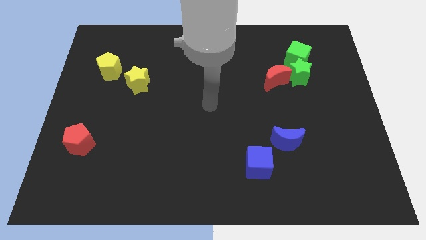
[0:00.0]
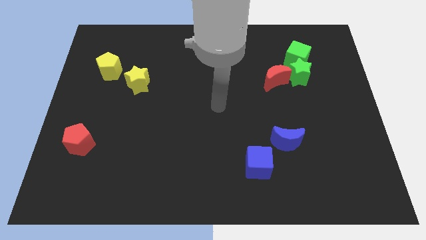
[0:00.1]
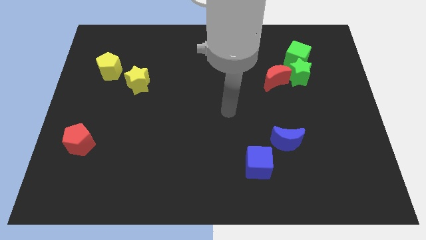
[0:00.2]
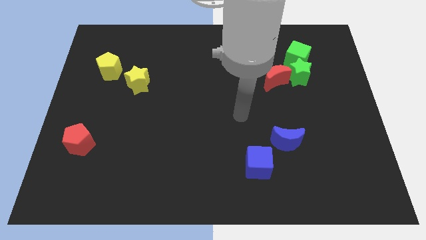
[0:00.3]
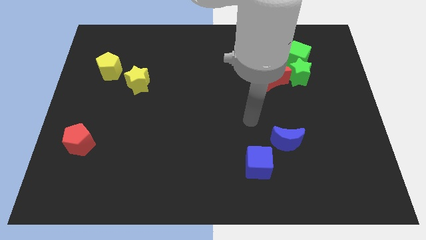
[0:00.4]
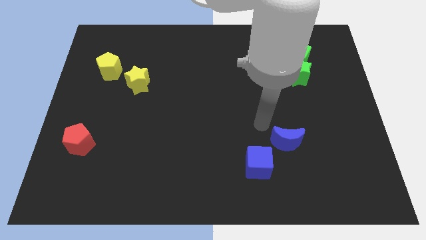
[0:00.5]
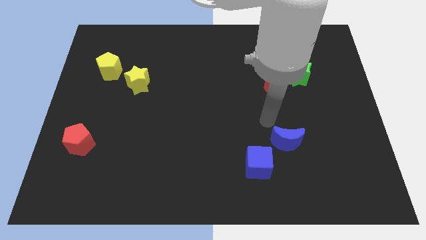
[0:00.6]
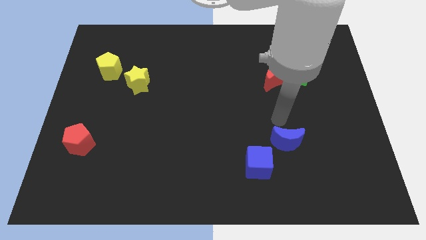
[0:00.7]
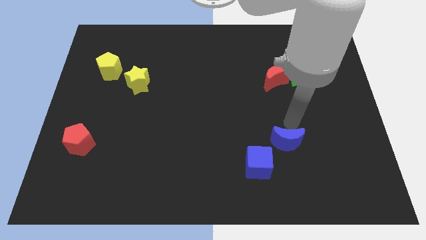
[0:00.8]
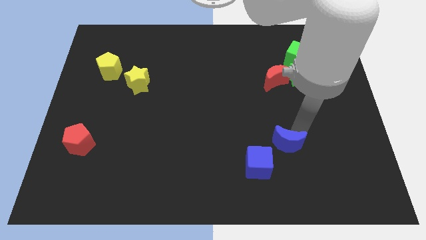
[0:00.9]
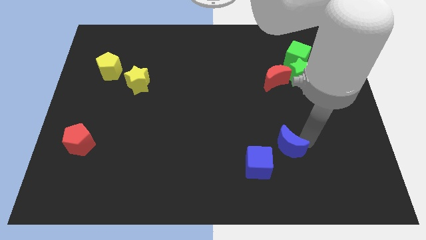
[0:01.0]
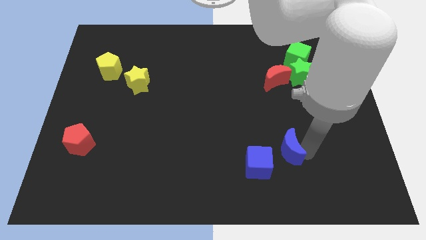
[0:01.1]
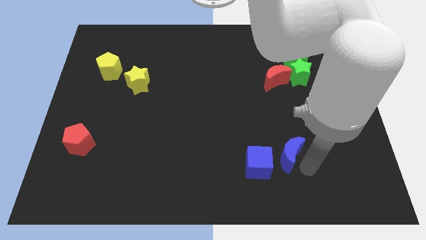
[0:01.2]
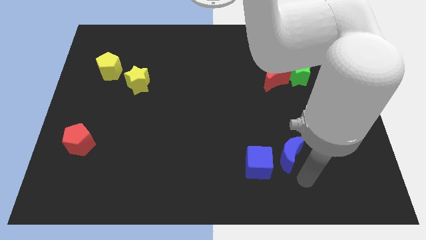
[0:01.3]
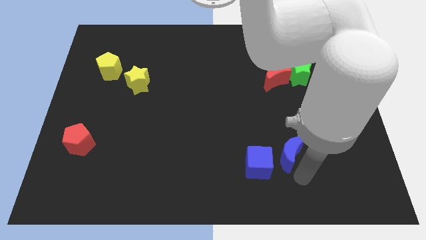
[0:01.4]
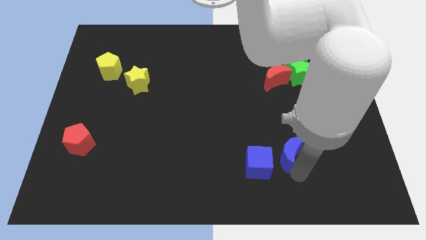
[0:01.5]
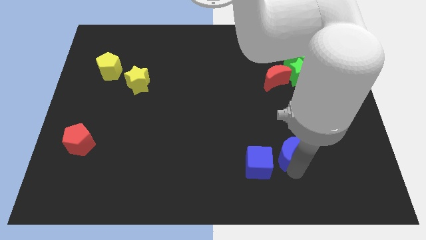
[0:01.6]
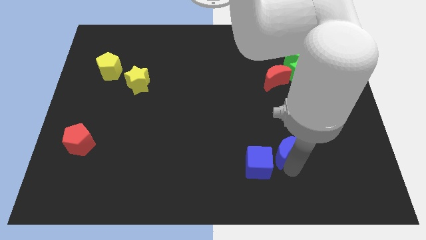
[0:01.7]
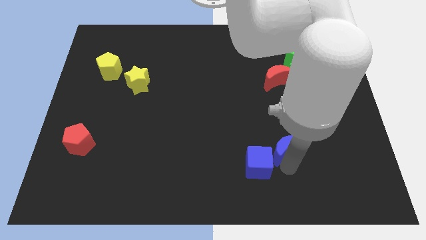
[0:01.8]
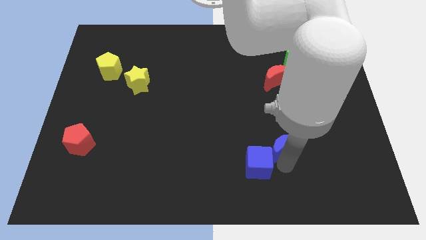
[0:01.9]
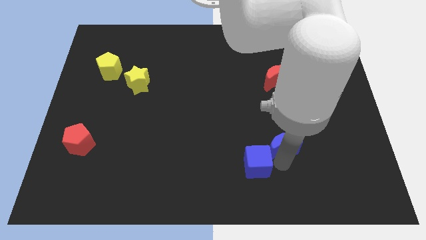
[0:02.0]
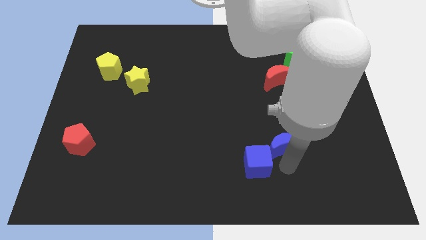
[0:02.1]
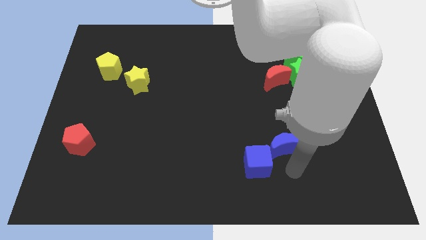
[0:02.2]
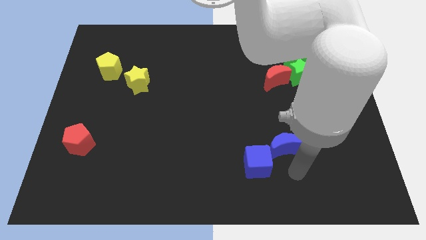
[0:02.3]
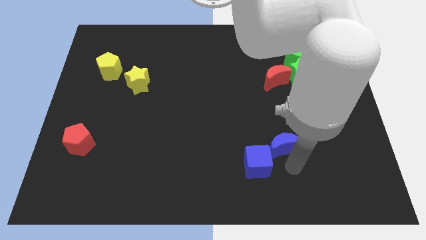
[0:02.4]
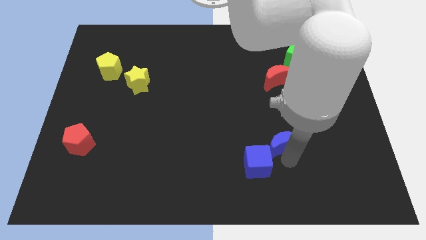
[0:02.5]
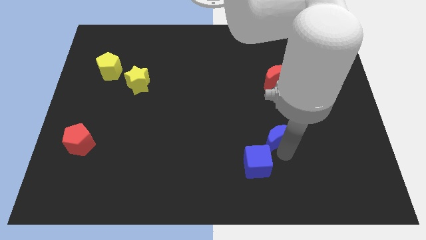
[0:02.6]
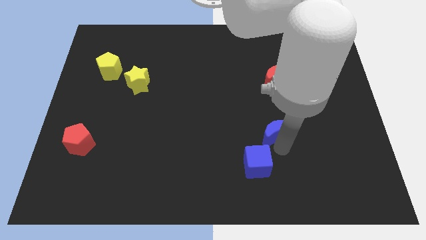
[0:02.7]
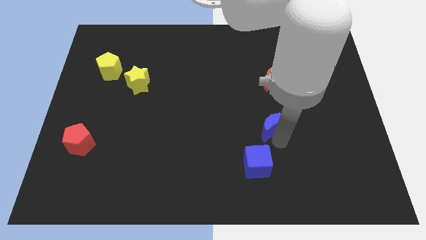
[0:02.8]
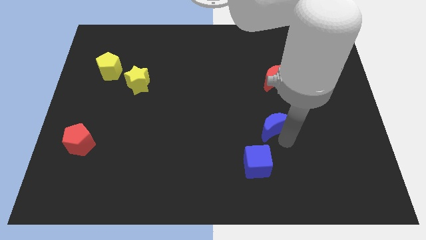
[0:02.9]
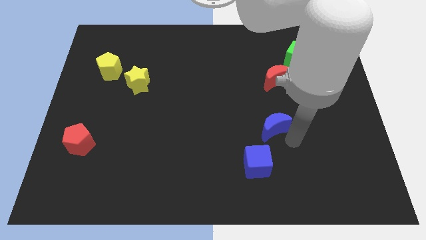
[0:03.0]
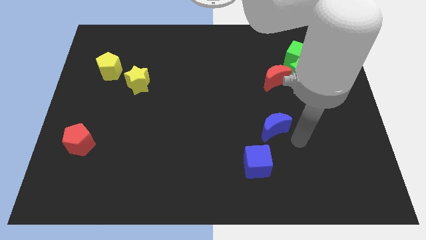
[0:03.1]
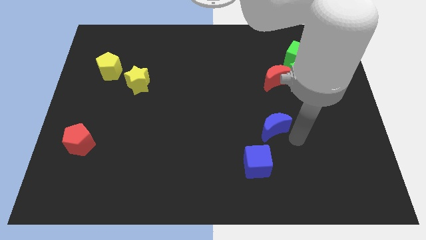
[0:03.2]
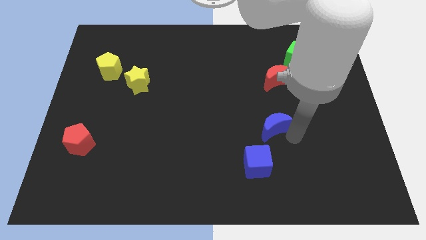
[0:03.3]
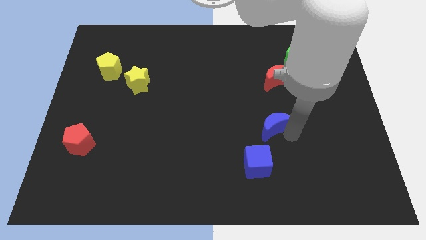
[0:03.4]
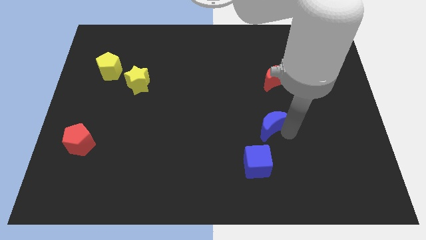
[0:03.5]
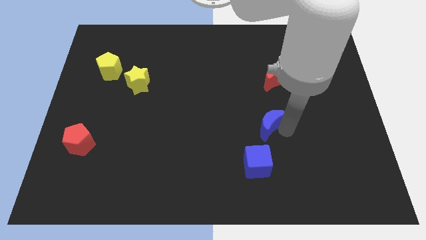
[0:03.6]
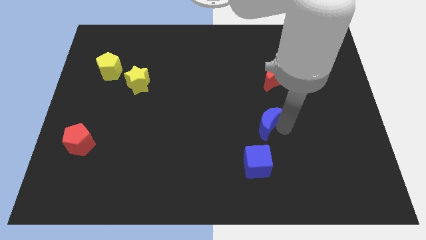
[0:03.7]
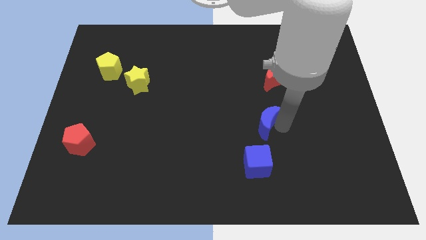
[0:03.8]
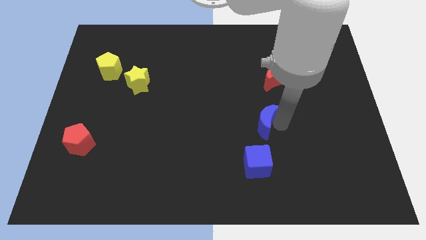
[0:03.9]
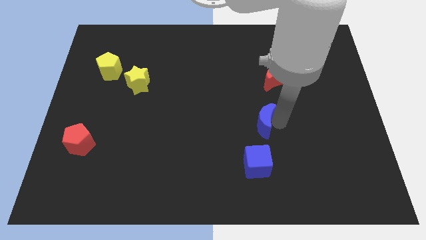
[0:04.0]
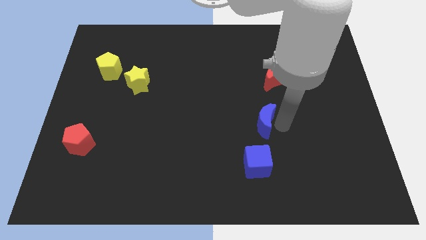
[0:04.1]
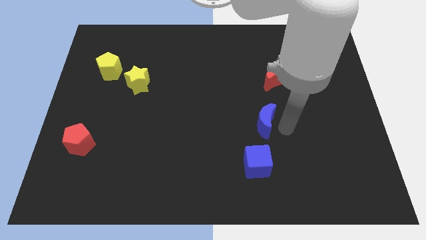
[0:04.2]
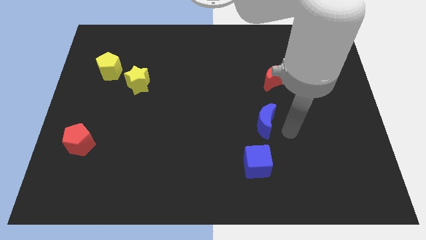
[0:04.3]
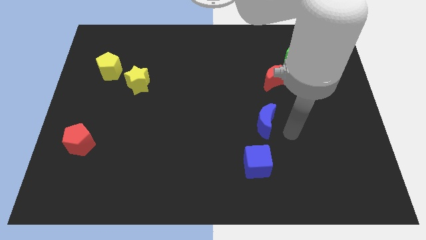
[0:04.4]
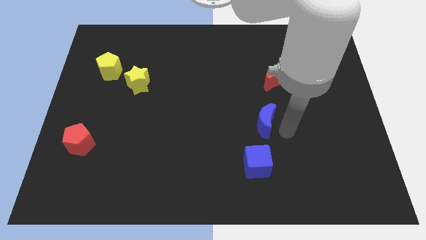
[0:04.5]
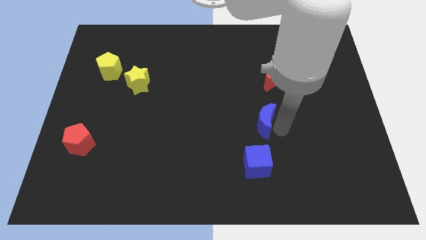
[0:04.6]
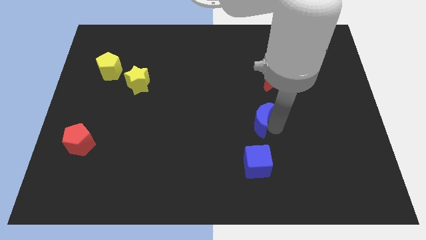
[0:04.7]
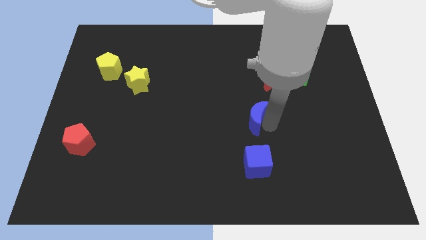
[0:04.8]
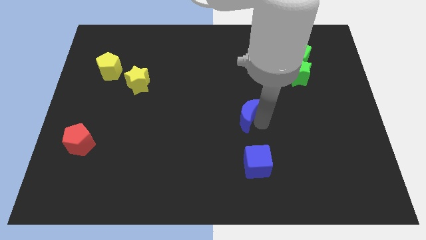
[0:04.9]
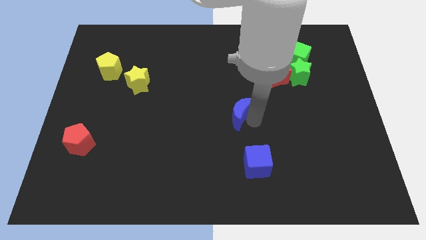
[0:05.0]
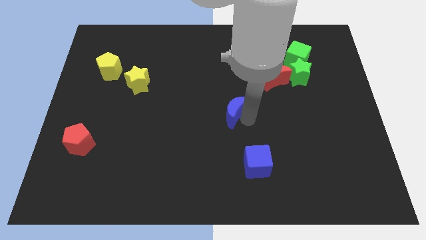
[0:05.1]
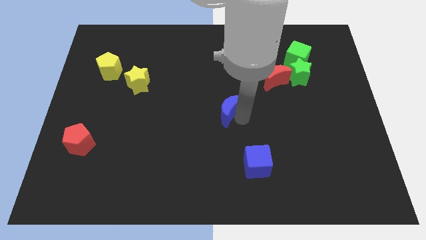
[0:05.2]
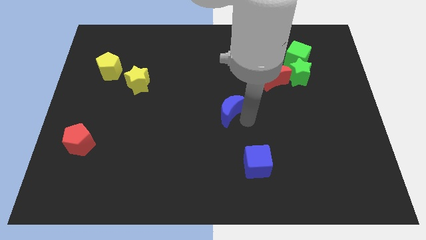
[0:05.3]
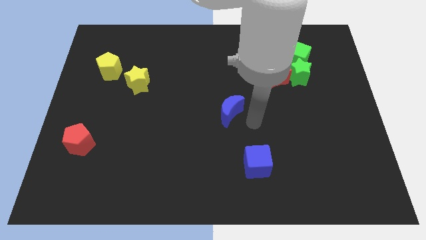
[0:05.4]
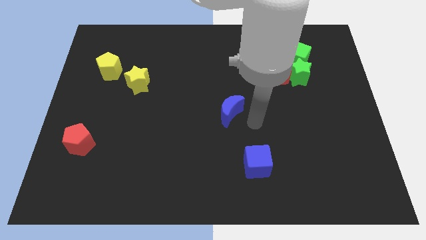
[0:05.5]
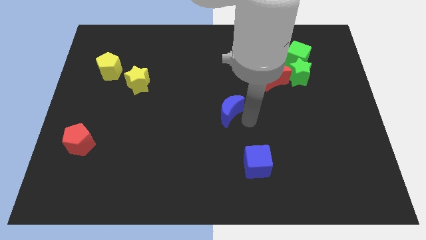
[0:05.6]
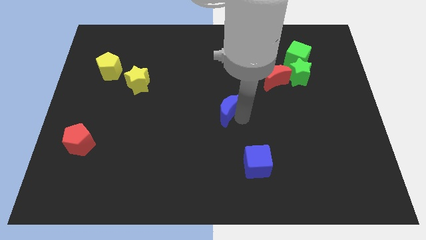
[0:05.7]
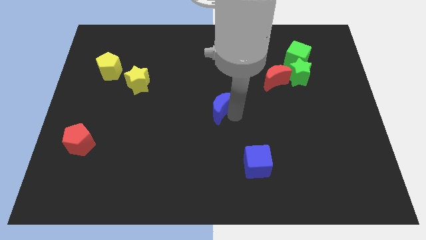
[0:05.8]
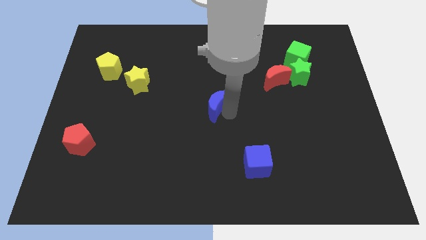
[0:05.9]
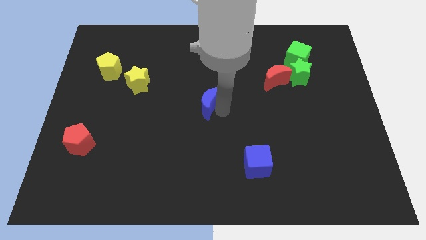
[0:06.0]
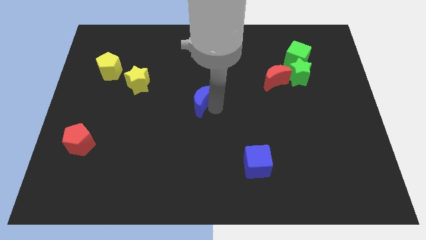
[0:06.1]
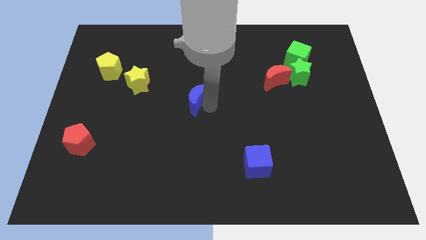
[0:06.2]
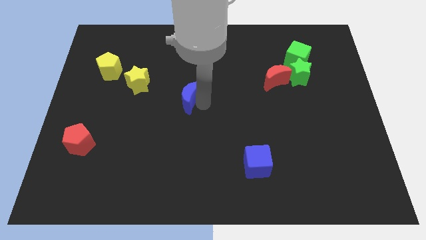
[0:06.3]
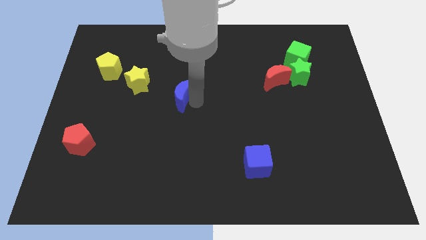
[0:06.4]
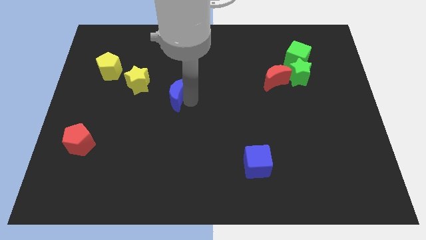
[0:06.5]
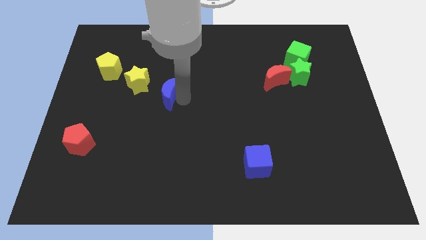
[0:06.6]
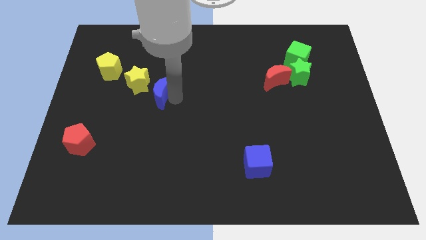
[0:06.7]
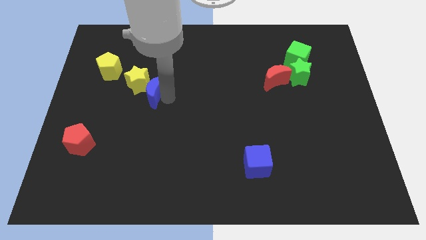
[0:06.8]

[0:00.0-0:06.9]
push the blue moon close to the yellow star
